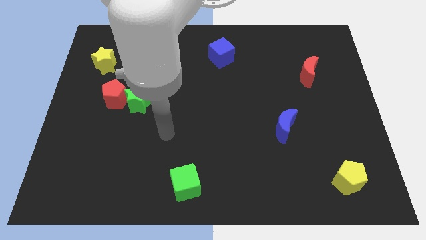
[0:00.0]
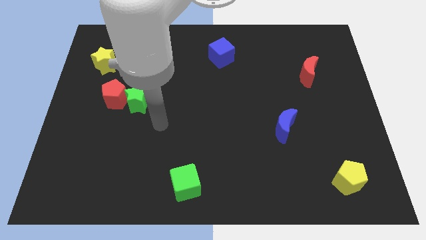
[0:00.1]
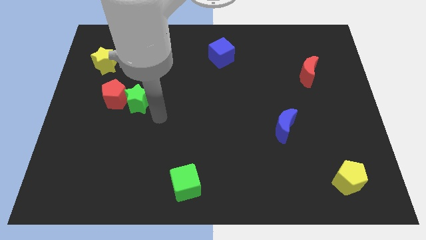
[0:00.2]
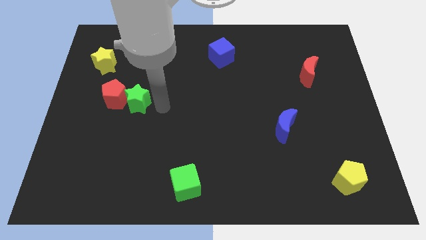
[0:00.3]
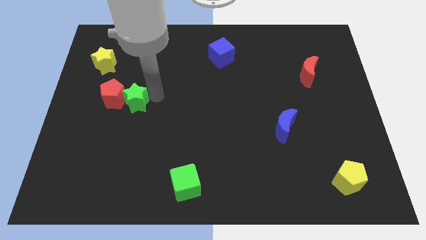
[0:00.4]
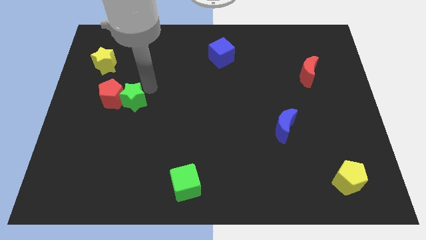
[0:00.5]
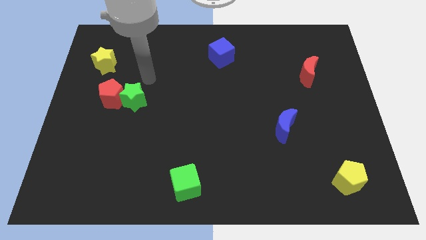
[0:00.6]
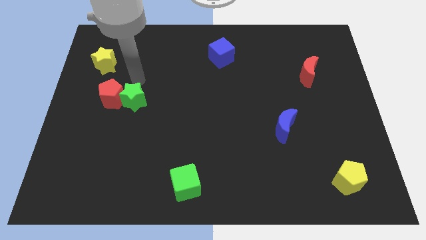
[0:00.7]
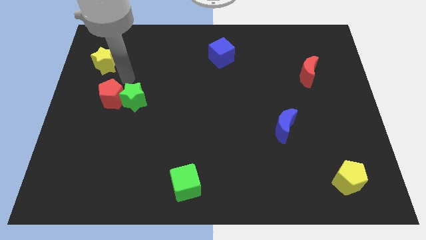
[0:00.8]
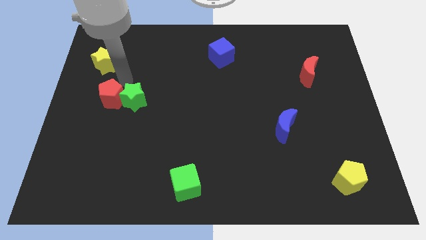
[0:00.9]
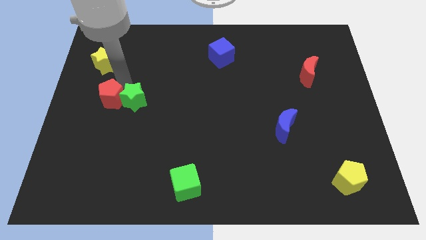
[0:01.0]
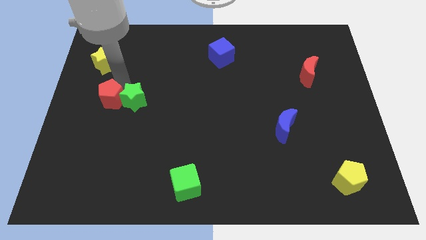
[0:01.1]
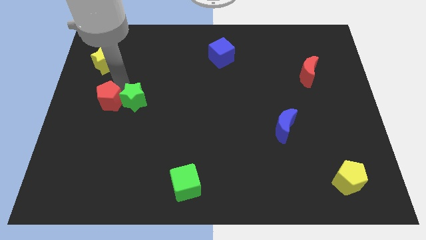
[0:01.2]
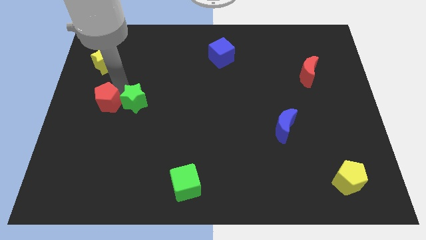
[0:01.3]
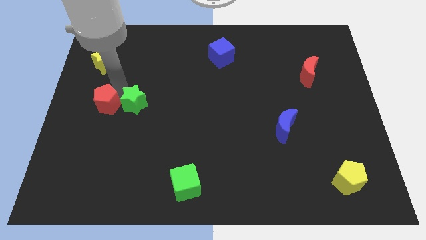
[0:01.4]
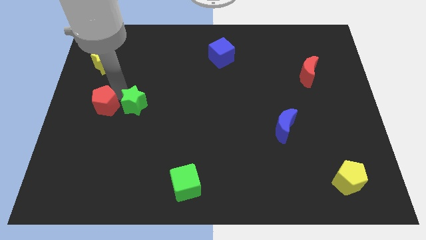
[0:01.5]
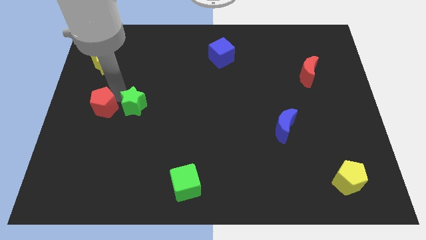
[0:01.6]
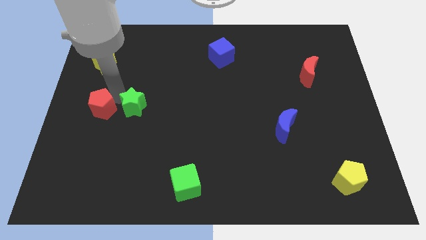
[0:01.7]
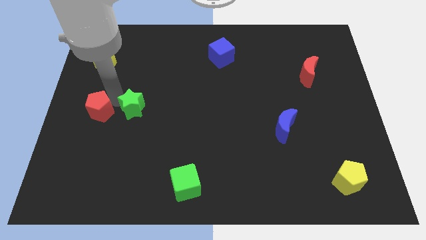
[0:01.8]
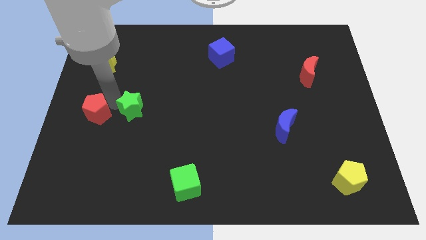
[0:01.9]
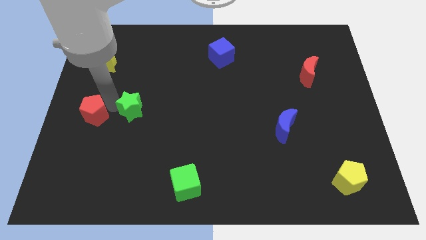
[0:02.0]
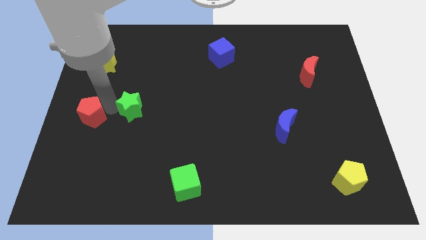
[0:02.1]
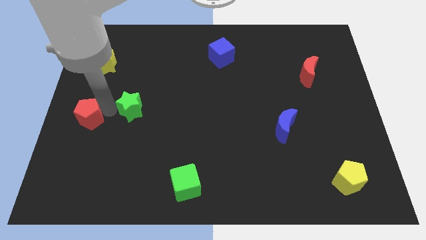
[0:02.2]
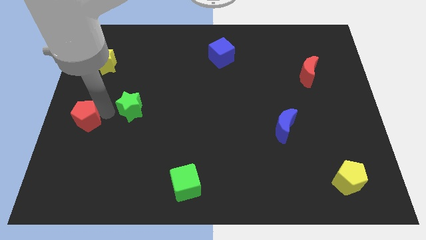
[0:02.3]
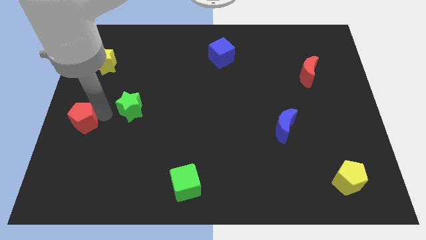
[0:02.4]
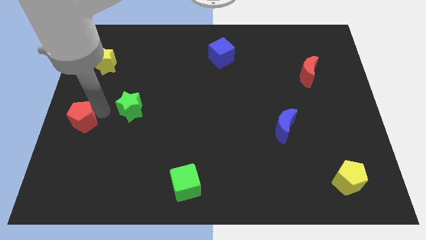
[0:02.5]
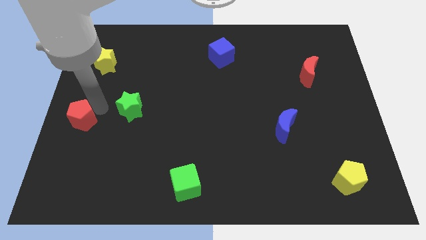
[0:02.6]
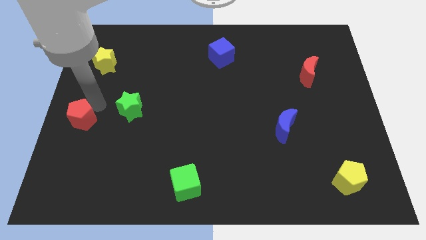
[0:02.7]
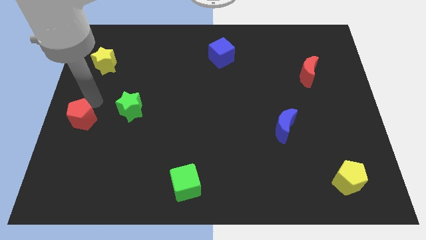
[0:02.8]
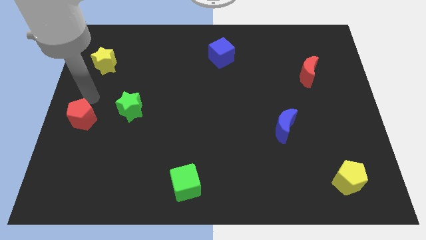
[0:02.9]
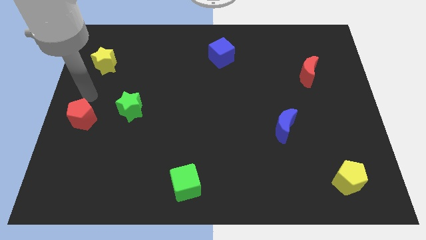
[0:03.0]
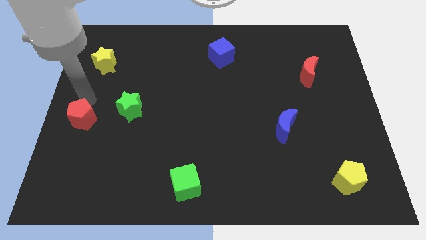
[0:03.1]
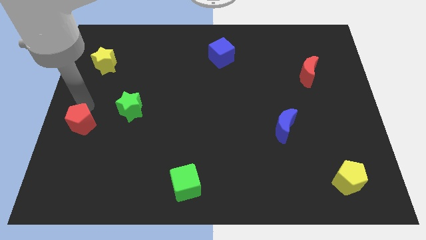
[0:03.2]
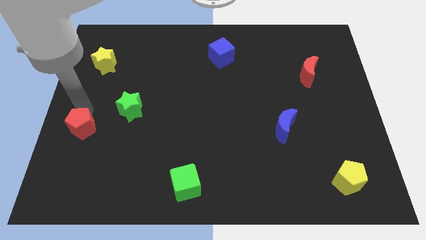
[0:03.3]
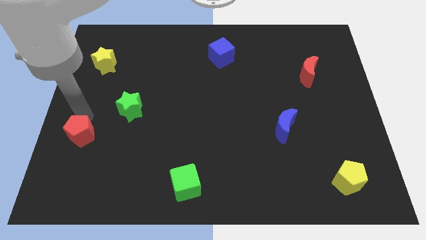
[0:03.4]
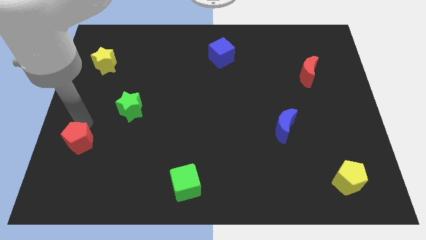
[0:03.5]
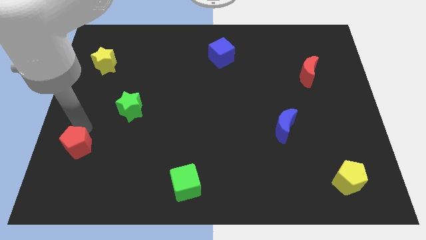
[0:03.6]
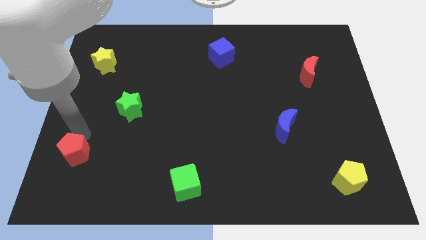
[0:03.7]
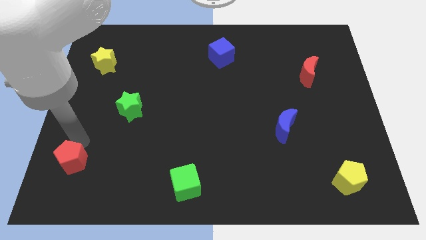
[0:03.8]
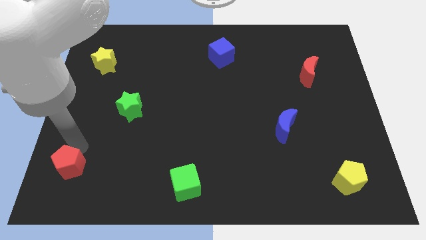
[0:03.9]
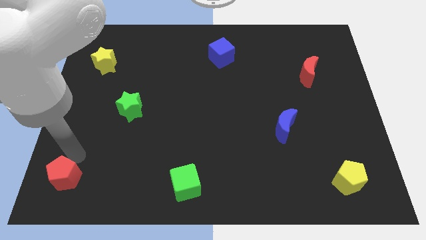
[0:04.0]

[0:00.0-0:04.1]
put the red pentagon to the bottom left of the board

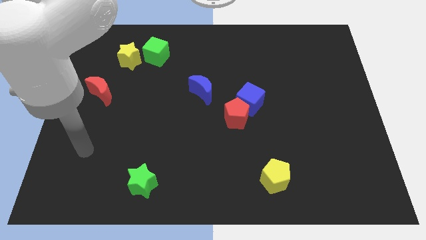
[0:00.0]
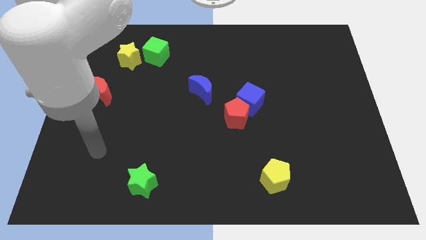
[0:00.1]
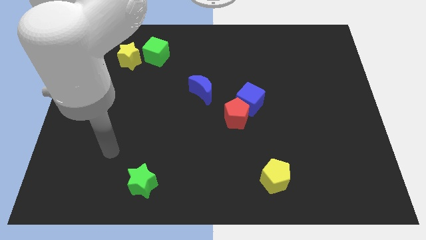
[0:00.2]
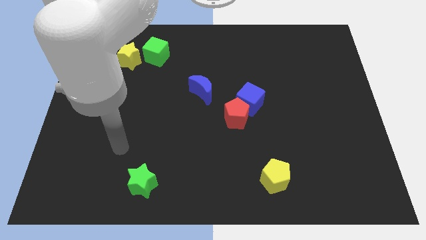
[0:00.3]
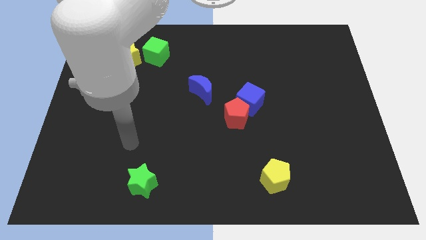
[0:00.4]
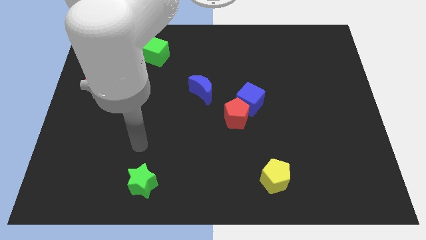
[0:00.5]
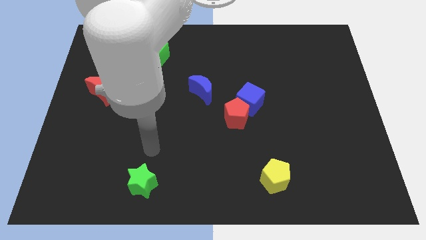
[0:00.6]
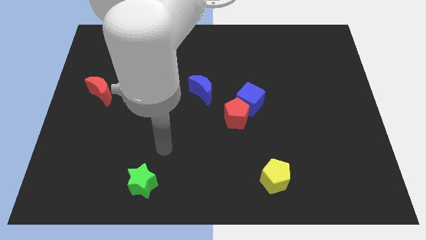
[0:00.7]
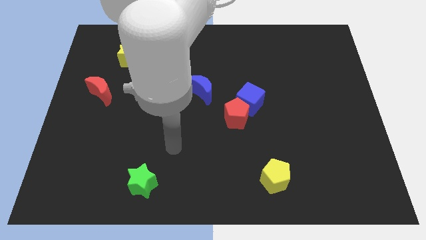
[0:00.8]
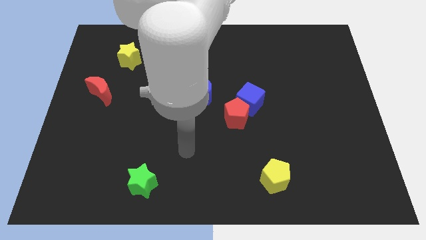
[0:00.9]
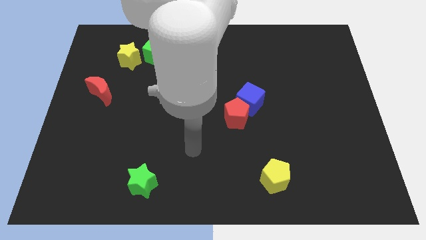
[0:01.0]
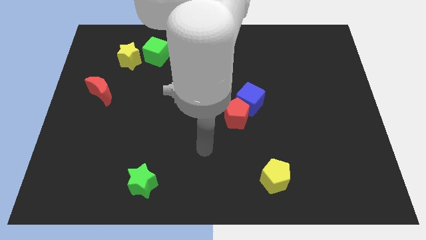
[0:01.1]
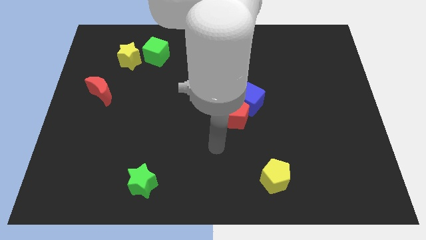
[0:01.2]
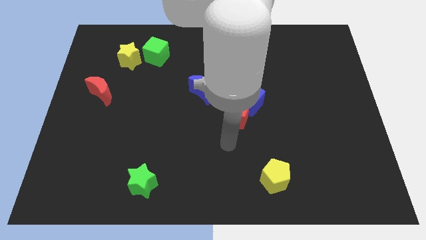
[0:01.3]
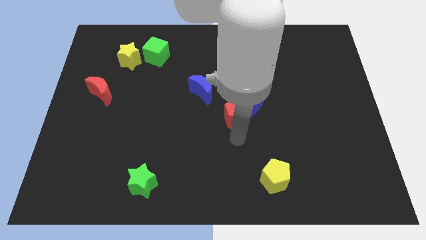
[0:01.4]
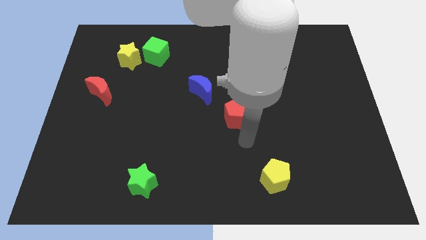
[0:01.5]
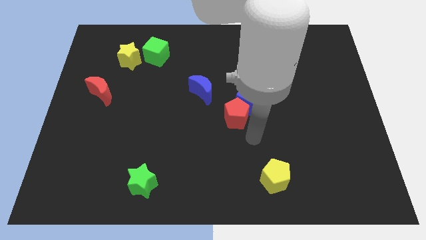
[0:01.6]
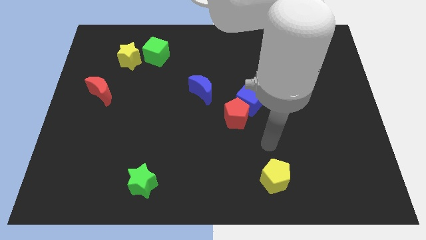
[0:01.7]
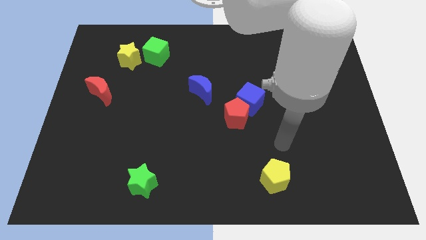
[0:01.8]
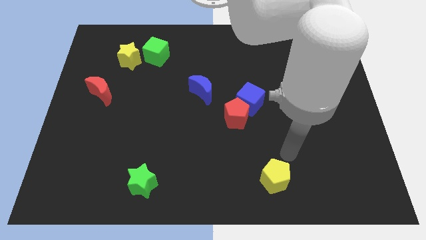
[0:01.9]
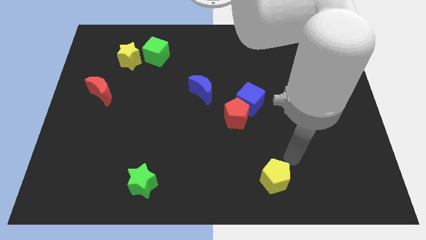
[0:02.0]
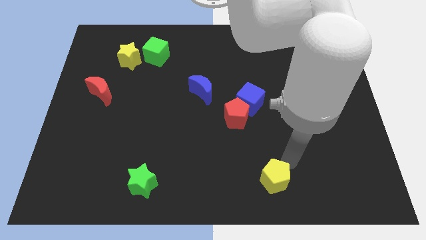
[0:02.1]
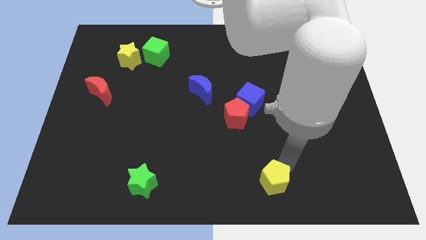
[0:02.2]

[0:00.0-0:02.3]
put the yellow pentagon to the bottom

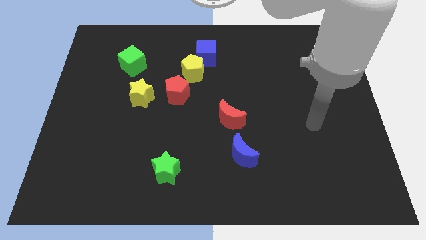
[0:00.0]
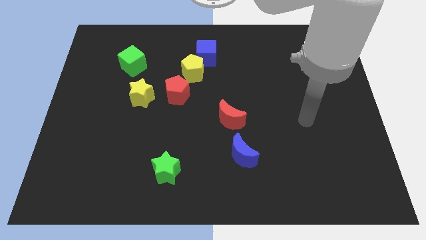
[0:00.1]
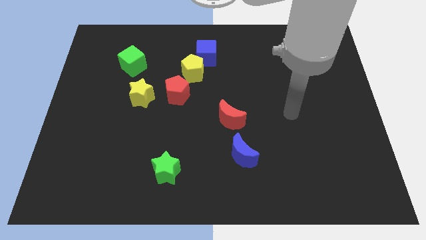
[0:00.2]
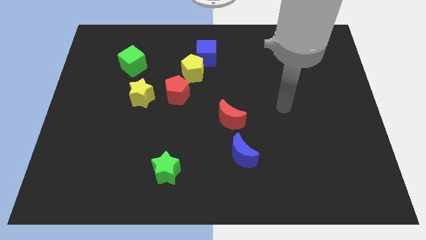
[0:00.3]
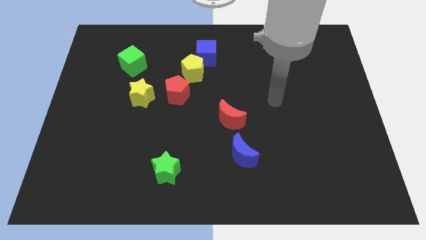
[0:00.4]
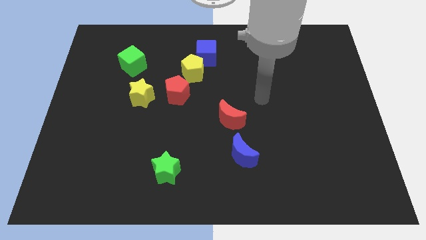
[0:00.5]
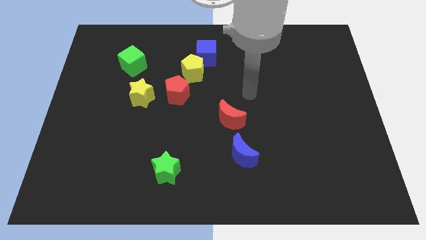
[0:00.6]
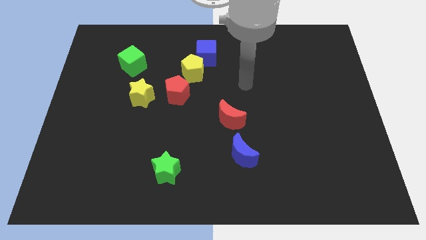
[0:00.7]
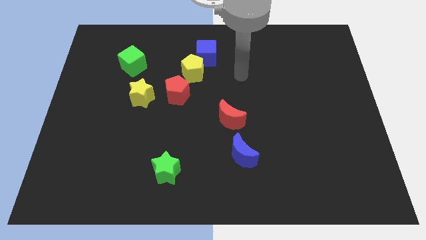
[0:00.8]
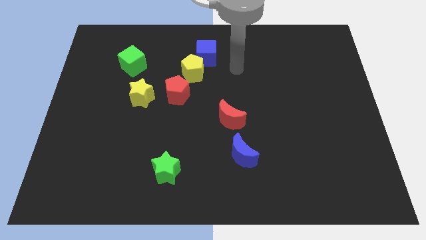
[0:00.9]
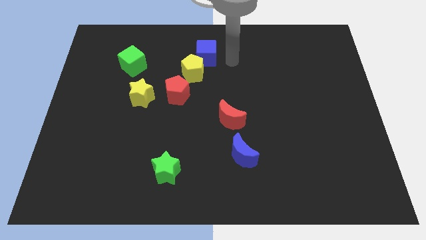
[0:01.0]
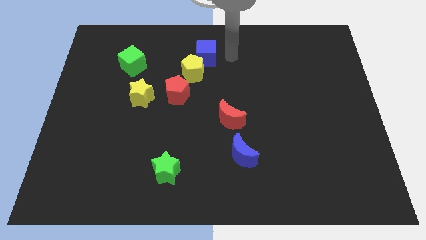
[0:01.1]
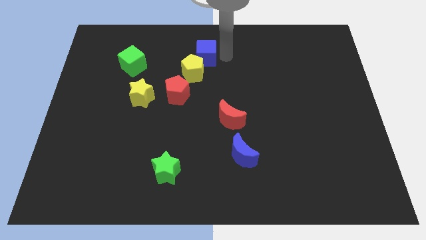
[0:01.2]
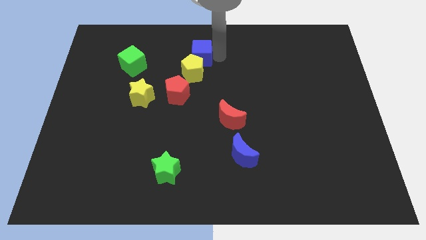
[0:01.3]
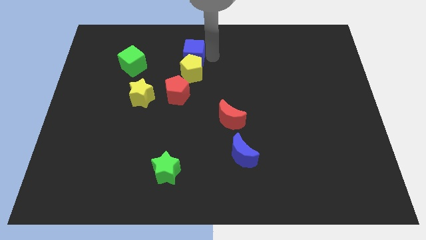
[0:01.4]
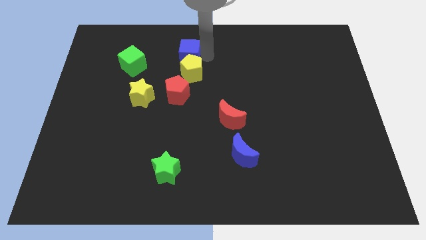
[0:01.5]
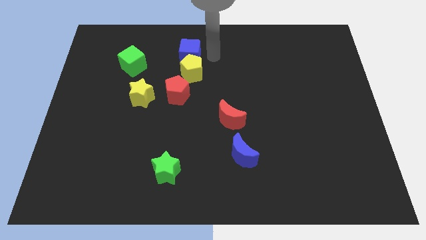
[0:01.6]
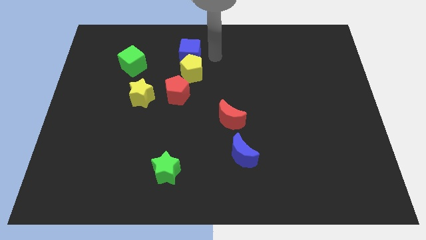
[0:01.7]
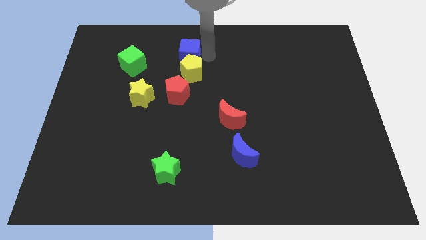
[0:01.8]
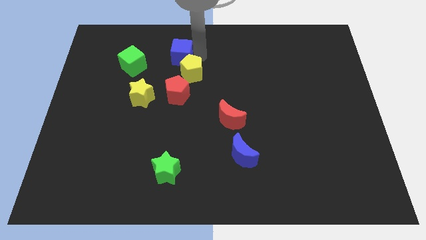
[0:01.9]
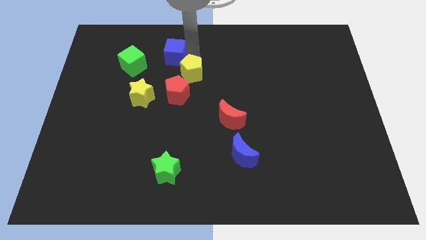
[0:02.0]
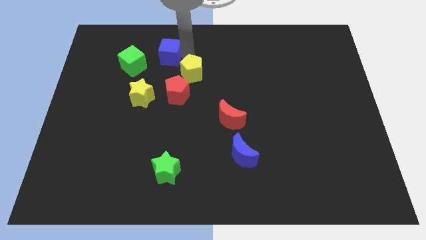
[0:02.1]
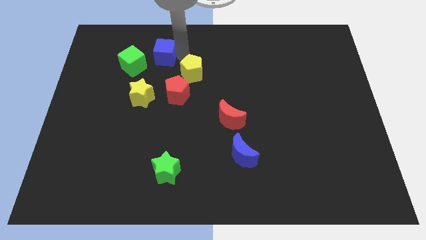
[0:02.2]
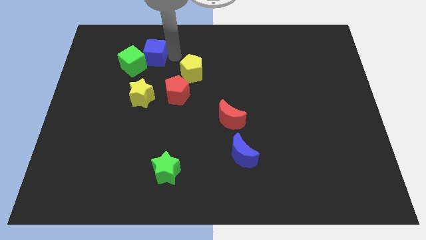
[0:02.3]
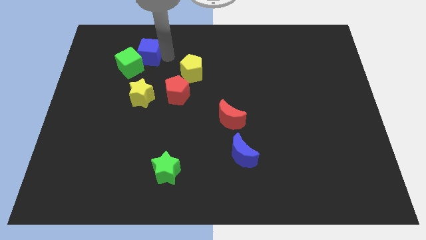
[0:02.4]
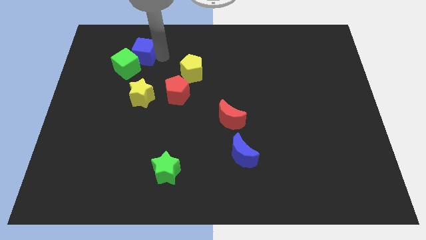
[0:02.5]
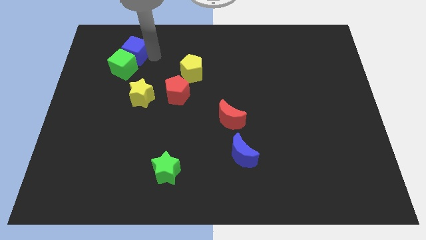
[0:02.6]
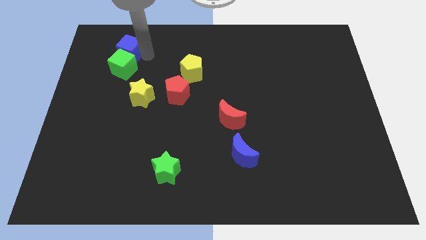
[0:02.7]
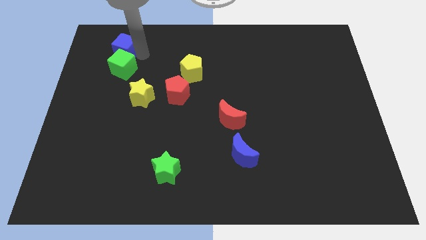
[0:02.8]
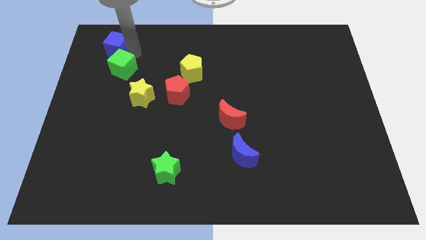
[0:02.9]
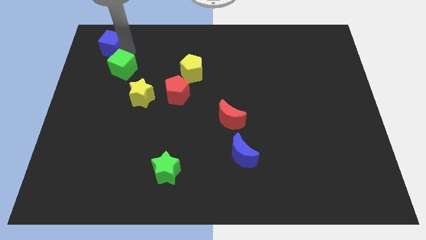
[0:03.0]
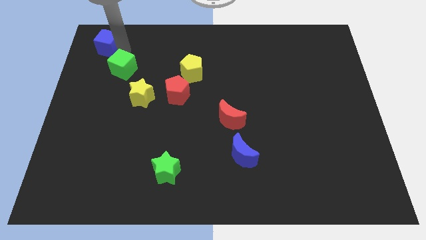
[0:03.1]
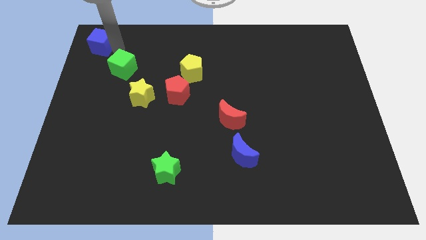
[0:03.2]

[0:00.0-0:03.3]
push the blue cube to the upper left corner
